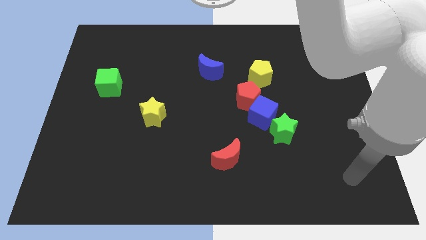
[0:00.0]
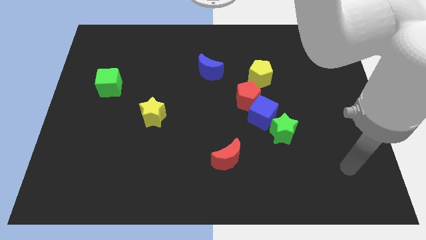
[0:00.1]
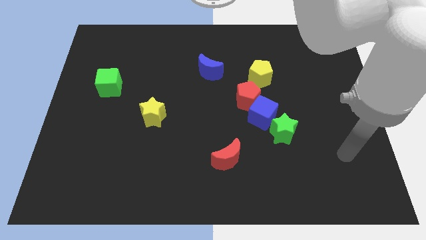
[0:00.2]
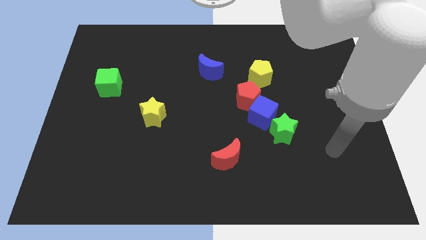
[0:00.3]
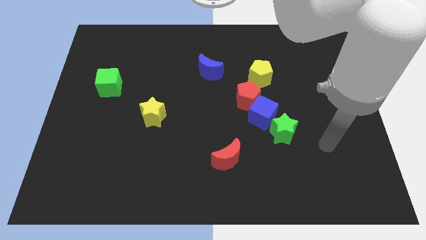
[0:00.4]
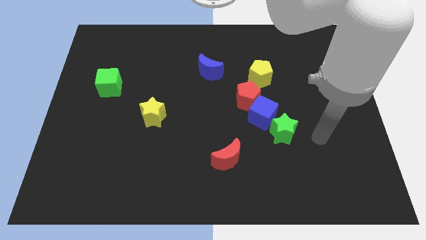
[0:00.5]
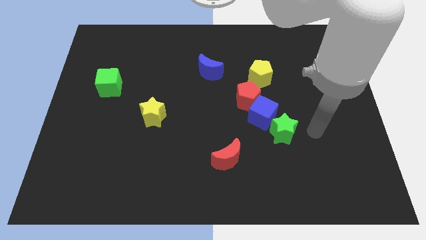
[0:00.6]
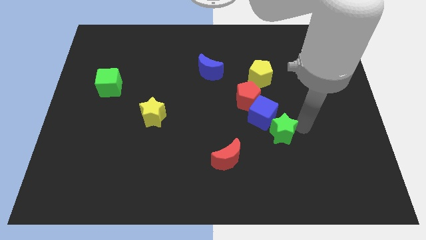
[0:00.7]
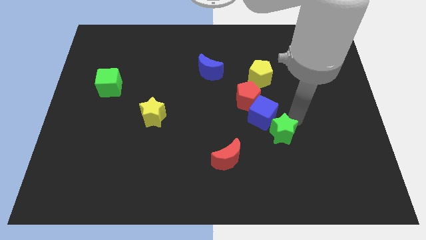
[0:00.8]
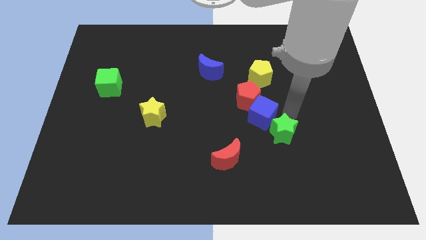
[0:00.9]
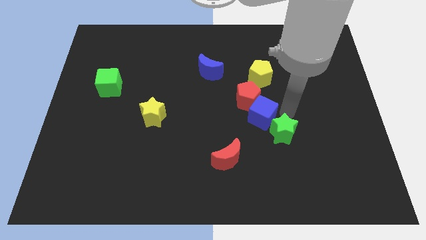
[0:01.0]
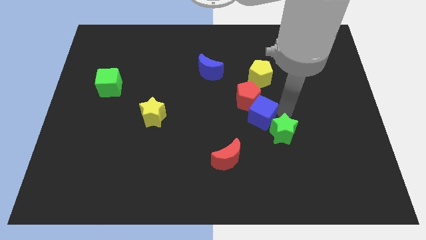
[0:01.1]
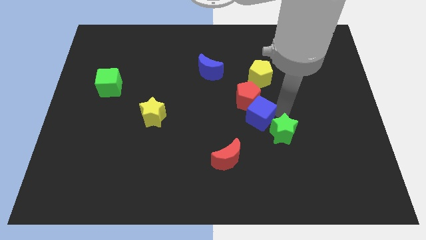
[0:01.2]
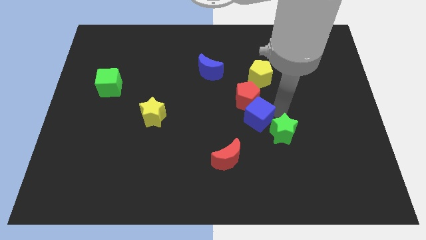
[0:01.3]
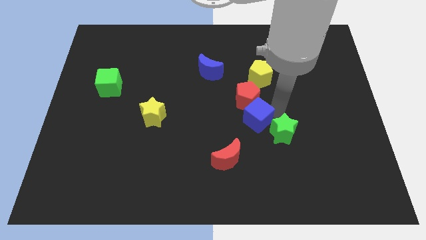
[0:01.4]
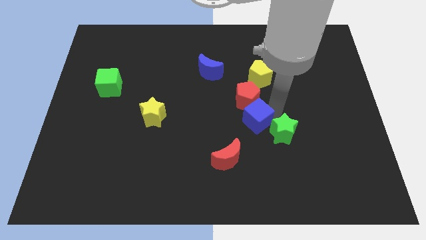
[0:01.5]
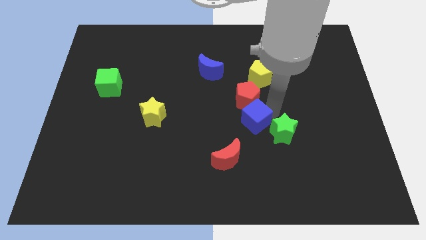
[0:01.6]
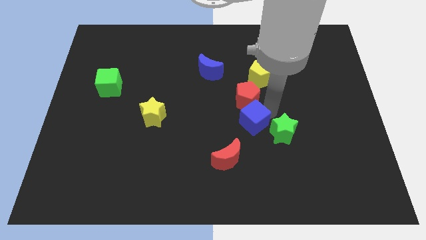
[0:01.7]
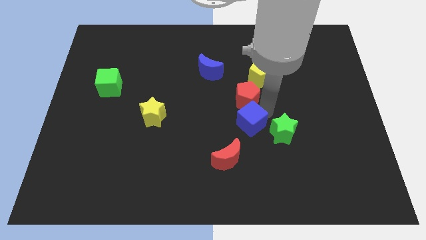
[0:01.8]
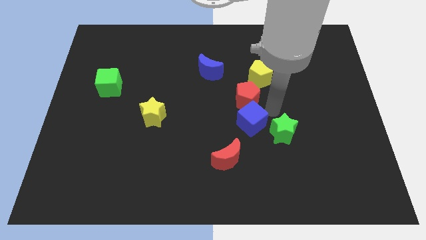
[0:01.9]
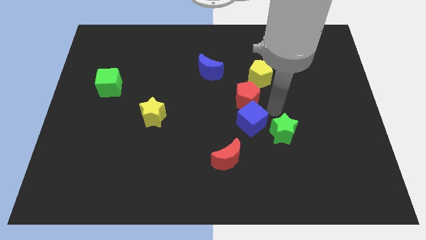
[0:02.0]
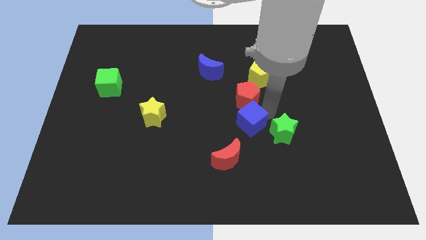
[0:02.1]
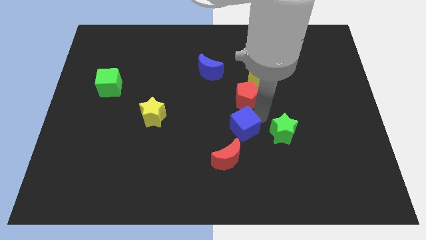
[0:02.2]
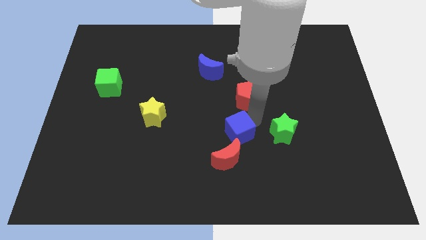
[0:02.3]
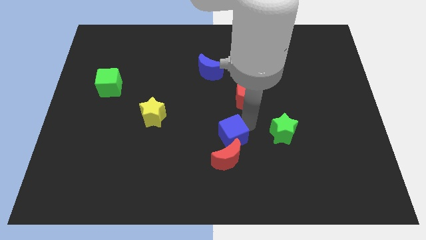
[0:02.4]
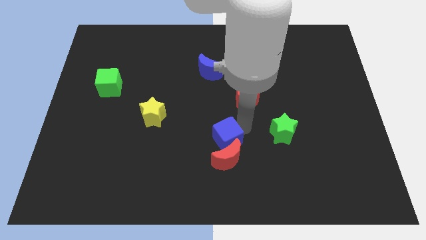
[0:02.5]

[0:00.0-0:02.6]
pull the blue cube apart from the red pentagon and green star

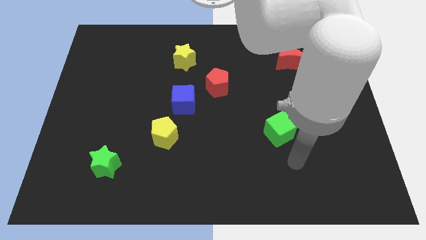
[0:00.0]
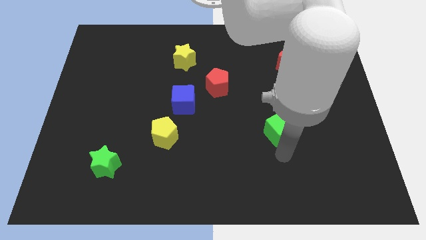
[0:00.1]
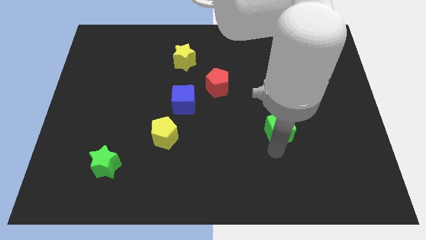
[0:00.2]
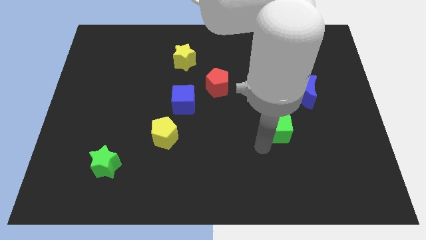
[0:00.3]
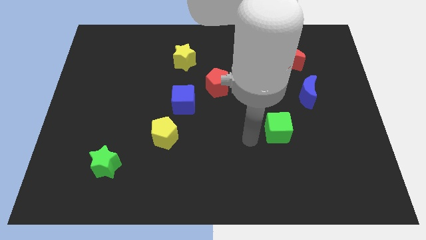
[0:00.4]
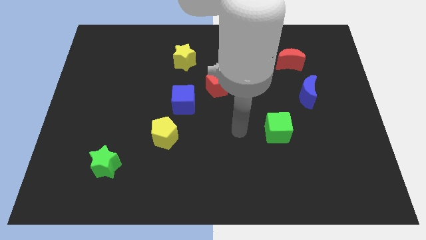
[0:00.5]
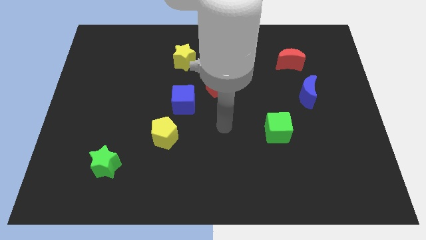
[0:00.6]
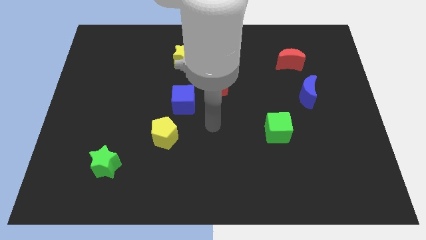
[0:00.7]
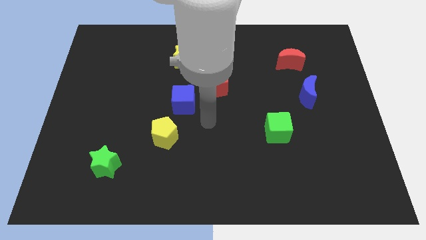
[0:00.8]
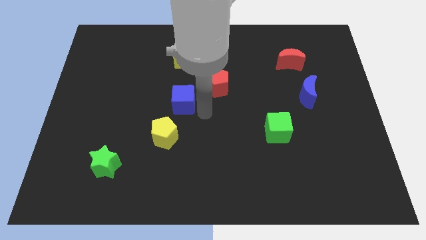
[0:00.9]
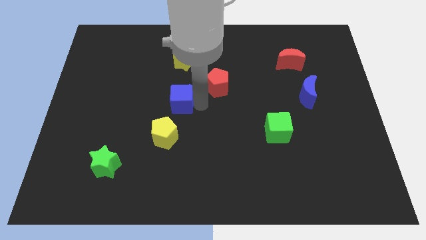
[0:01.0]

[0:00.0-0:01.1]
move the red pentagon away from the blue cube

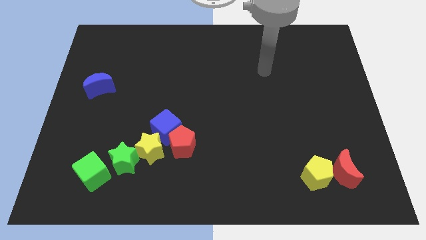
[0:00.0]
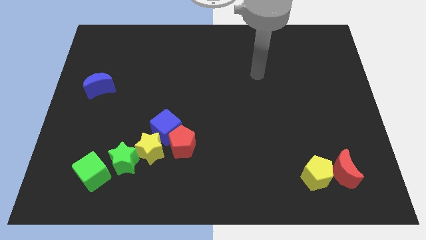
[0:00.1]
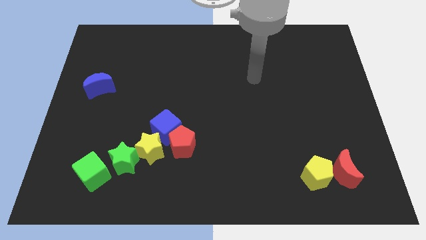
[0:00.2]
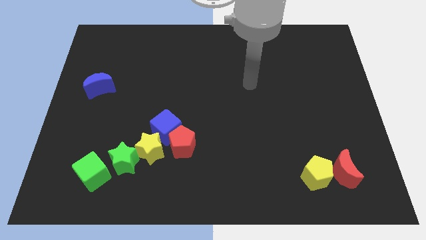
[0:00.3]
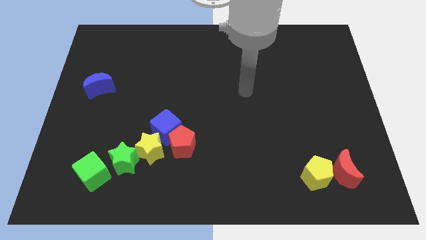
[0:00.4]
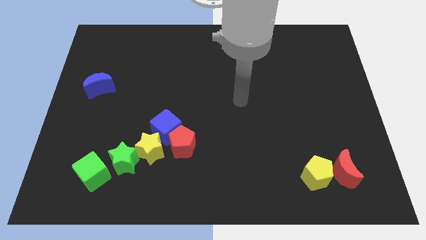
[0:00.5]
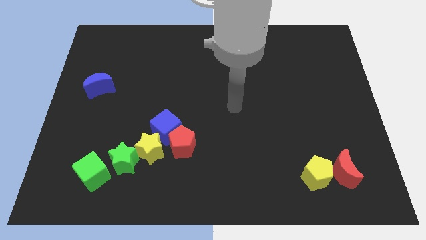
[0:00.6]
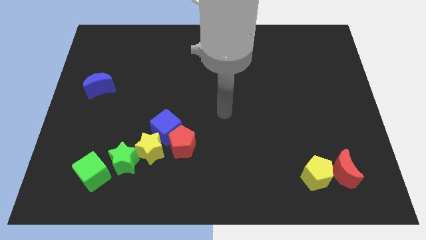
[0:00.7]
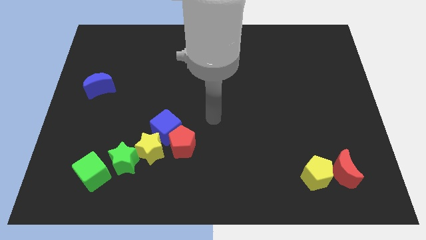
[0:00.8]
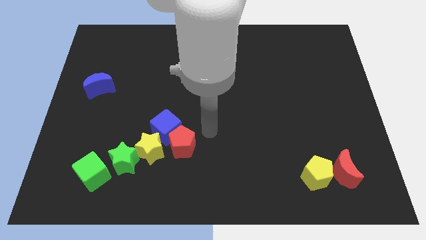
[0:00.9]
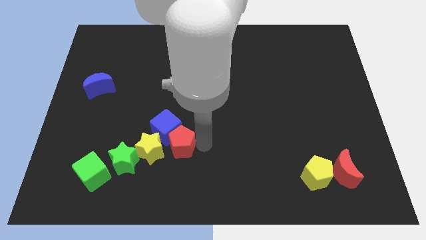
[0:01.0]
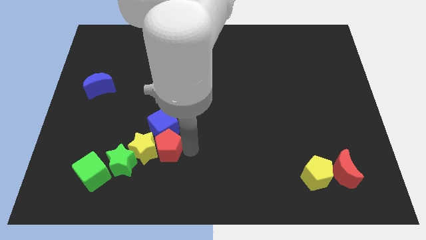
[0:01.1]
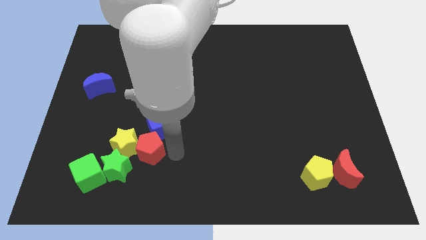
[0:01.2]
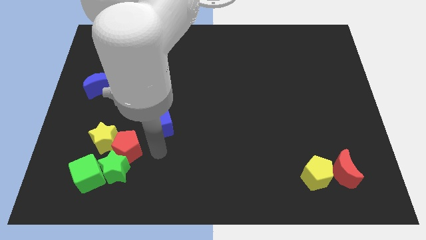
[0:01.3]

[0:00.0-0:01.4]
separate the blue cube from the red pentagon and yellow star

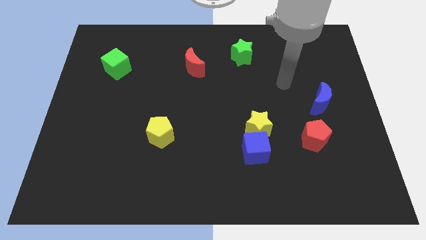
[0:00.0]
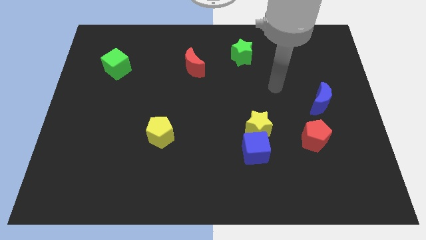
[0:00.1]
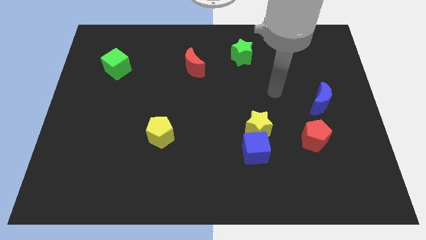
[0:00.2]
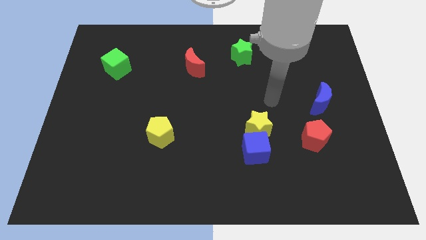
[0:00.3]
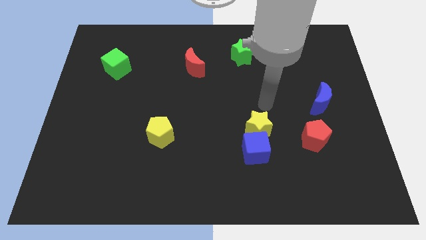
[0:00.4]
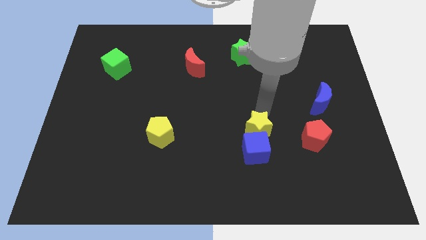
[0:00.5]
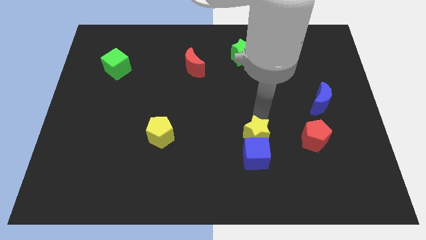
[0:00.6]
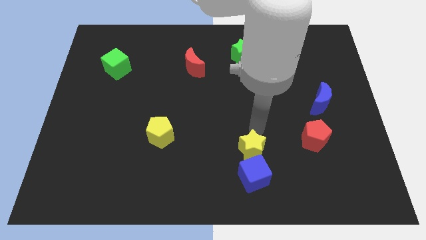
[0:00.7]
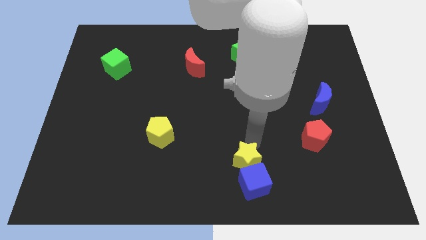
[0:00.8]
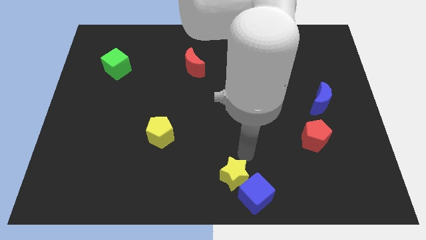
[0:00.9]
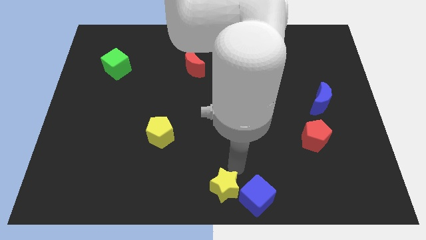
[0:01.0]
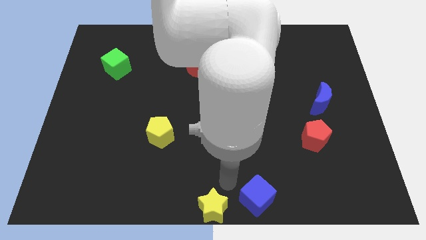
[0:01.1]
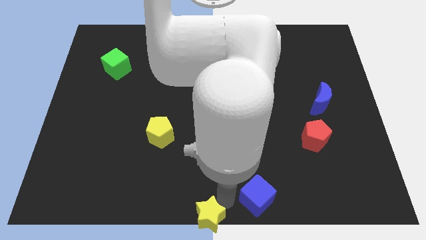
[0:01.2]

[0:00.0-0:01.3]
separate the blue cube from the yellow star

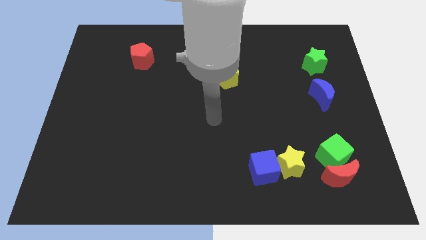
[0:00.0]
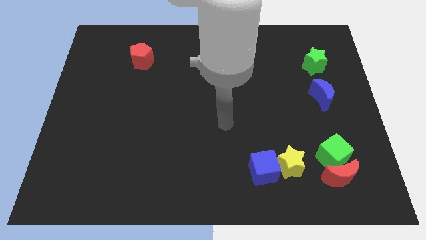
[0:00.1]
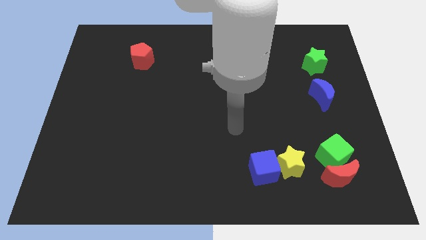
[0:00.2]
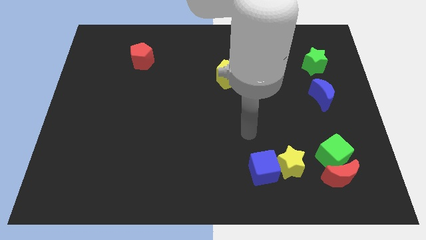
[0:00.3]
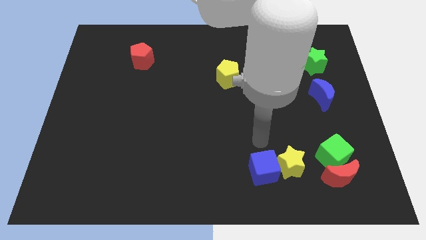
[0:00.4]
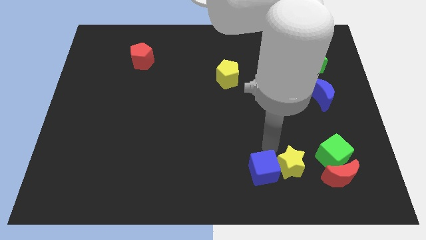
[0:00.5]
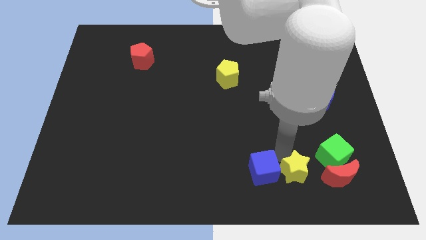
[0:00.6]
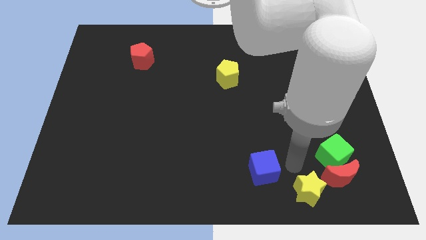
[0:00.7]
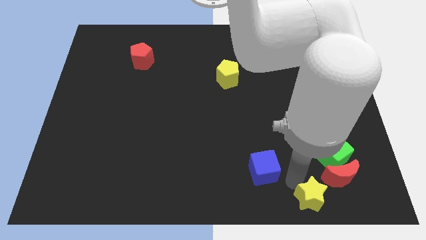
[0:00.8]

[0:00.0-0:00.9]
move the blue cube away from the yellow star

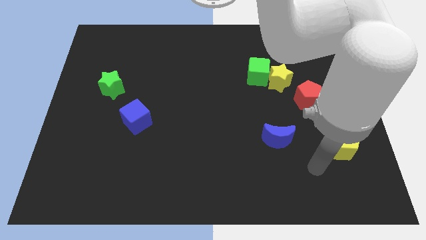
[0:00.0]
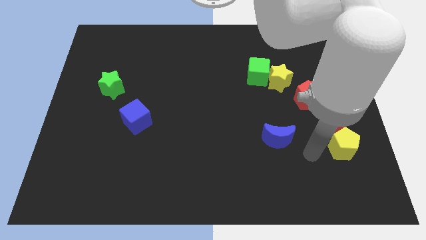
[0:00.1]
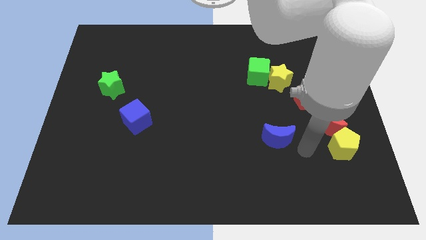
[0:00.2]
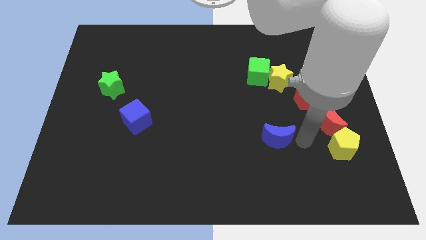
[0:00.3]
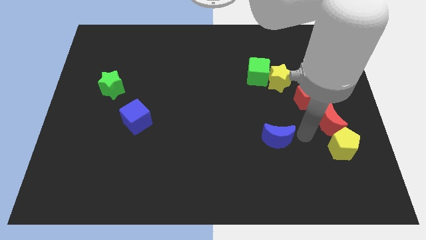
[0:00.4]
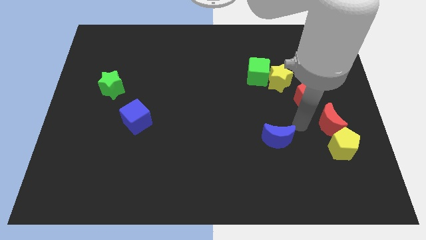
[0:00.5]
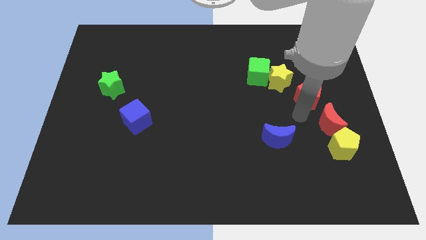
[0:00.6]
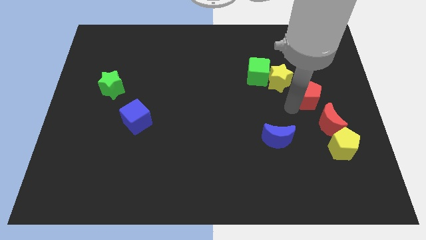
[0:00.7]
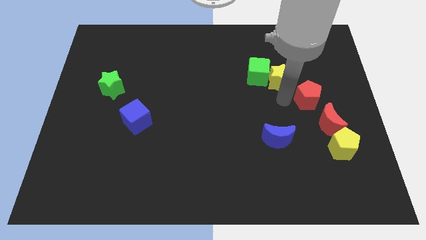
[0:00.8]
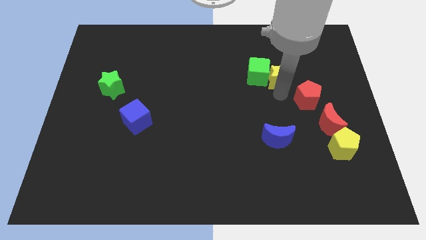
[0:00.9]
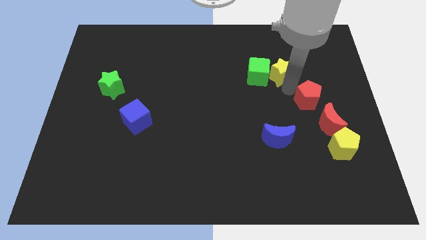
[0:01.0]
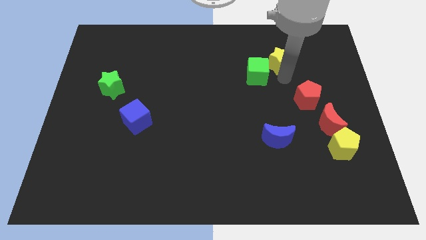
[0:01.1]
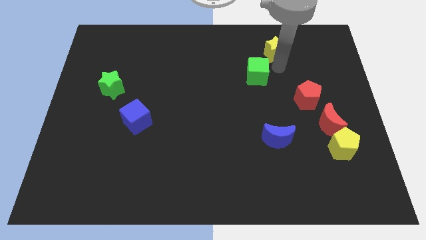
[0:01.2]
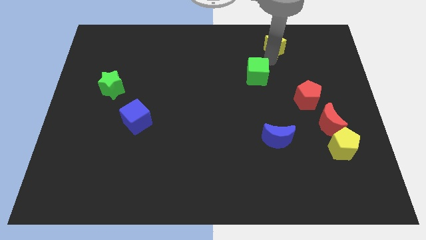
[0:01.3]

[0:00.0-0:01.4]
separate the green cube from the yellow star

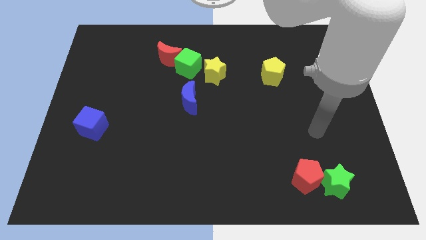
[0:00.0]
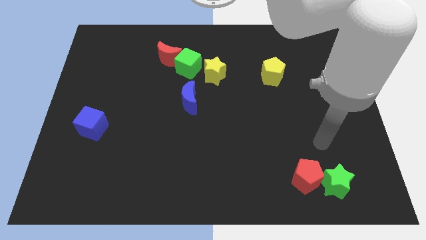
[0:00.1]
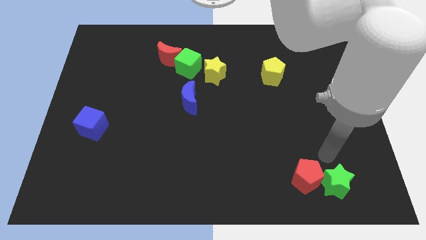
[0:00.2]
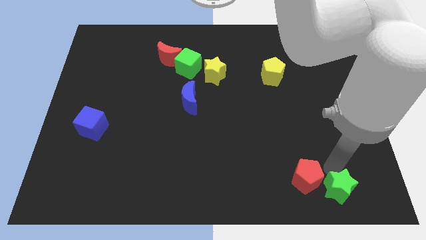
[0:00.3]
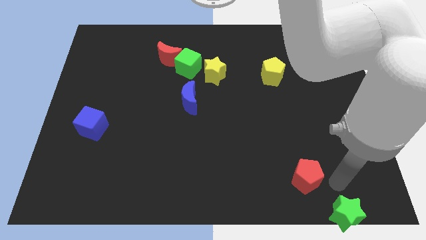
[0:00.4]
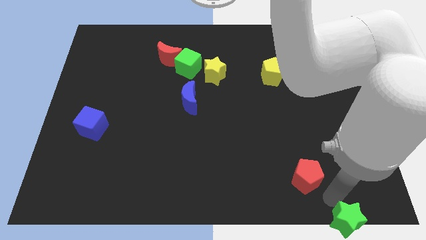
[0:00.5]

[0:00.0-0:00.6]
separate the red pentagon from the green star
